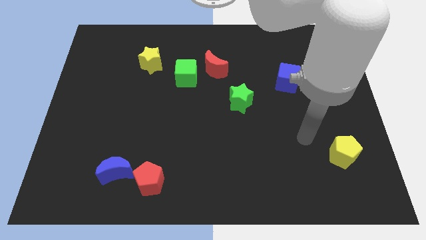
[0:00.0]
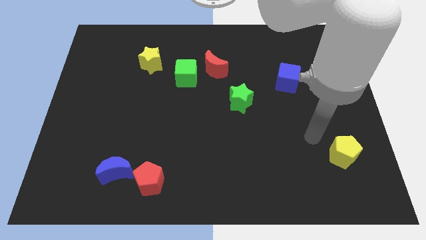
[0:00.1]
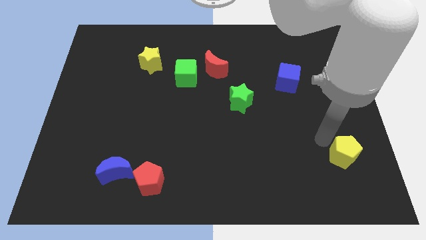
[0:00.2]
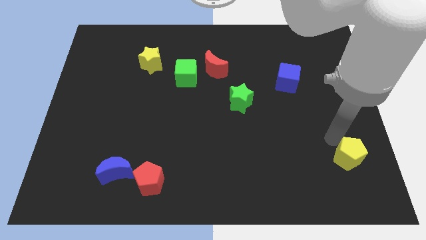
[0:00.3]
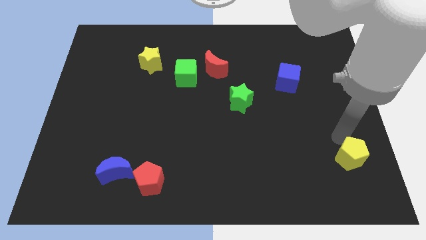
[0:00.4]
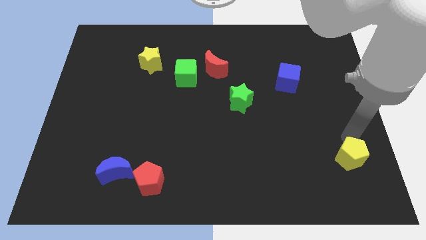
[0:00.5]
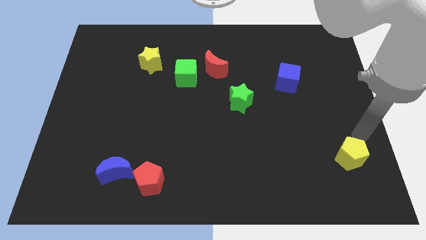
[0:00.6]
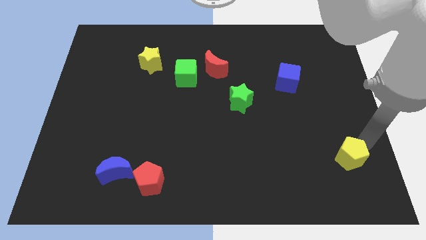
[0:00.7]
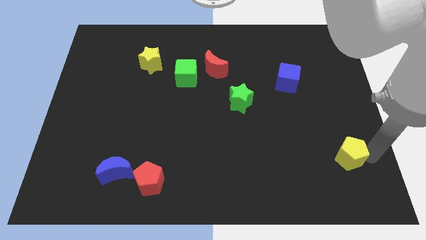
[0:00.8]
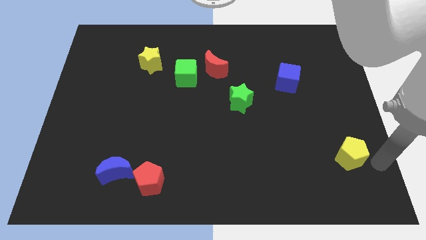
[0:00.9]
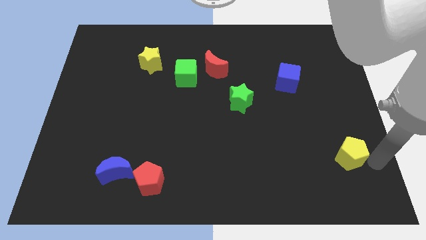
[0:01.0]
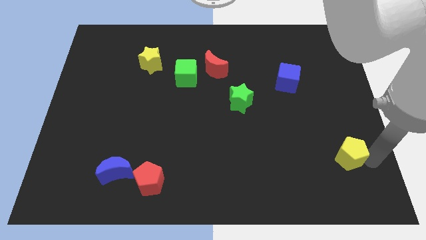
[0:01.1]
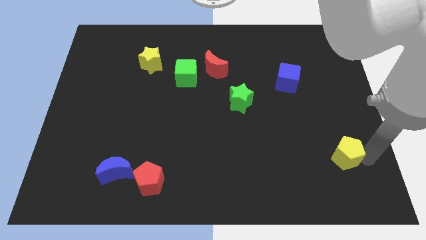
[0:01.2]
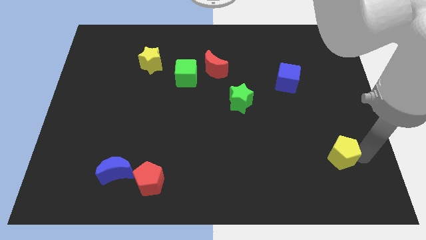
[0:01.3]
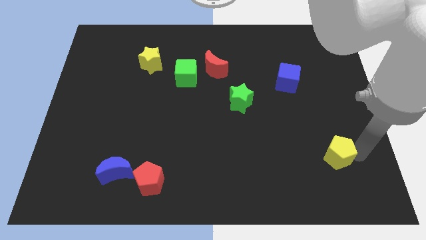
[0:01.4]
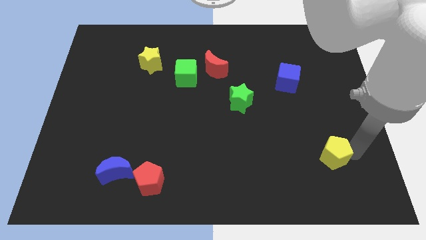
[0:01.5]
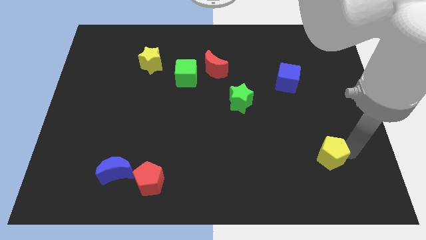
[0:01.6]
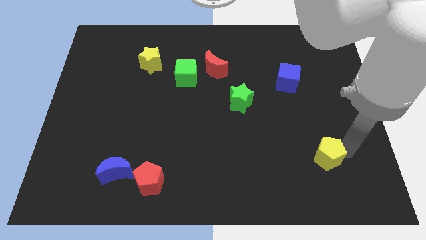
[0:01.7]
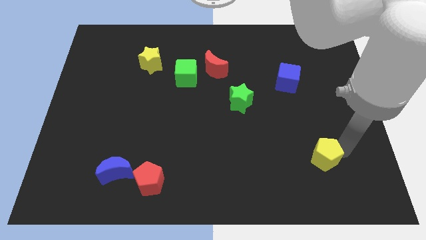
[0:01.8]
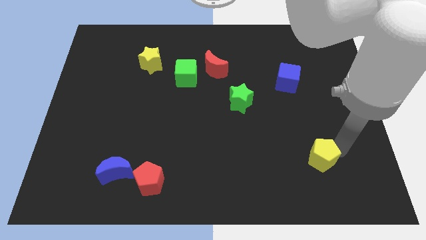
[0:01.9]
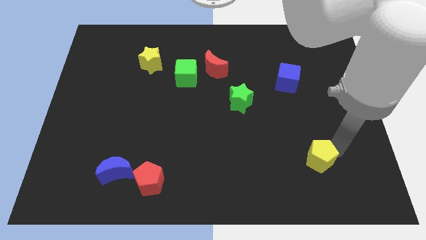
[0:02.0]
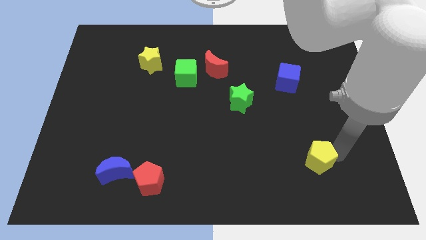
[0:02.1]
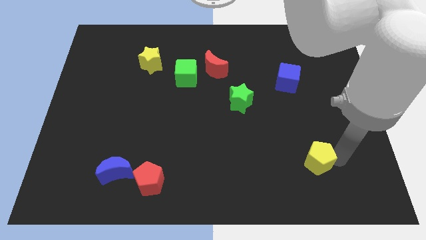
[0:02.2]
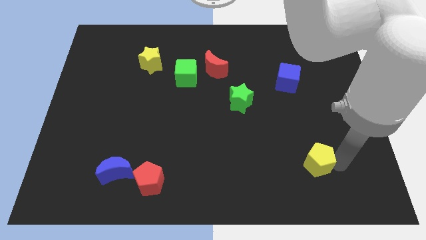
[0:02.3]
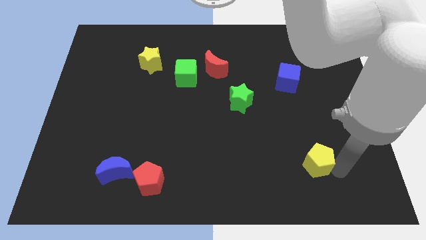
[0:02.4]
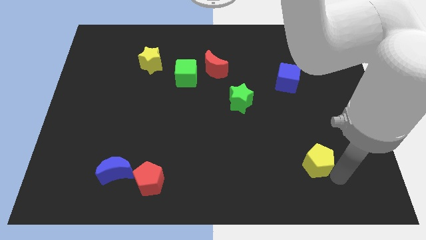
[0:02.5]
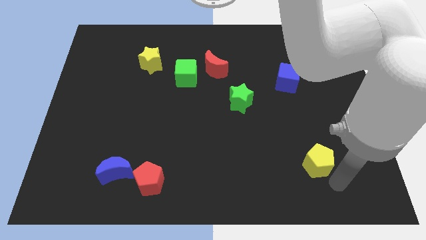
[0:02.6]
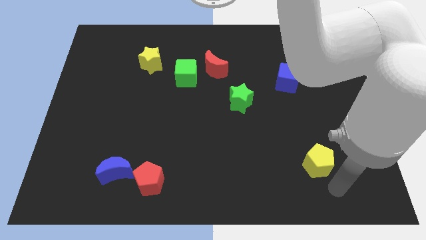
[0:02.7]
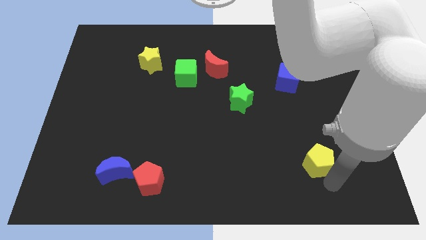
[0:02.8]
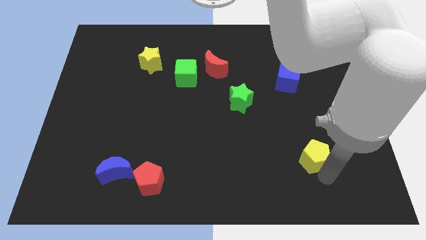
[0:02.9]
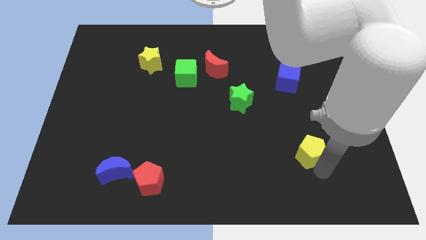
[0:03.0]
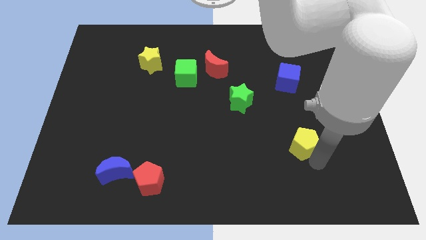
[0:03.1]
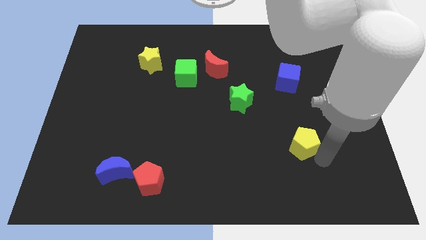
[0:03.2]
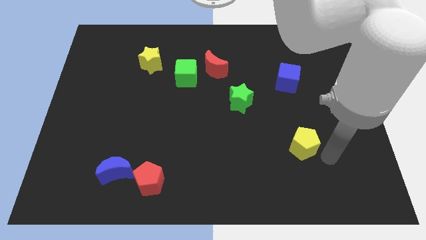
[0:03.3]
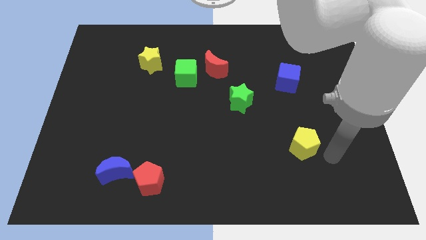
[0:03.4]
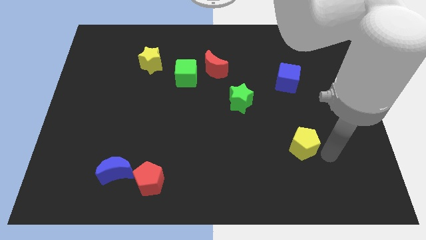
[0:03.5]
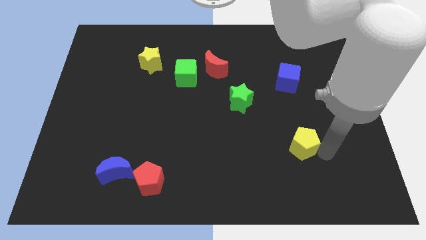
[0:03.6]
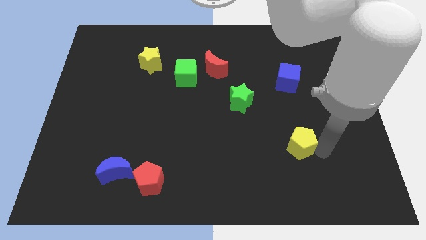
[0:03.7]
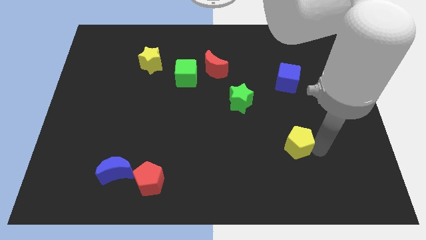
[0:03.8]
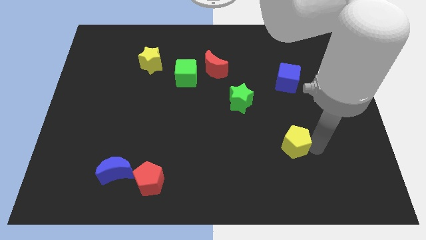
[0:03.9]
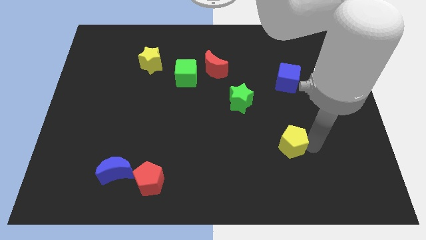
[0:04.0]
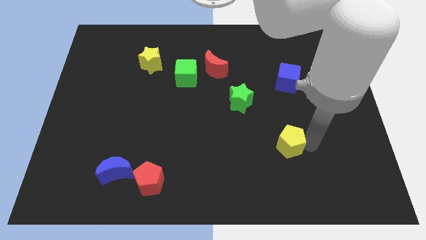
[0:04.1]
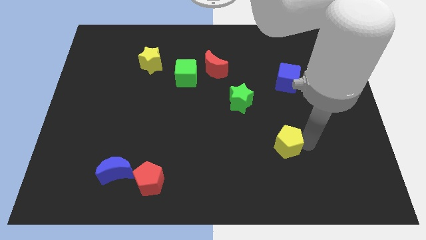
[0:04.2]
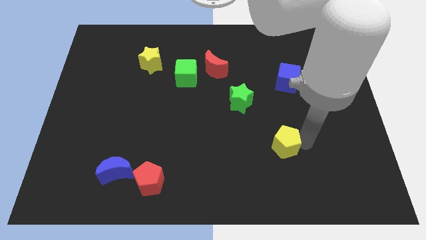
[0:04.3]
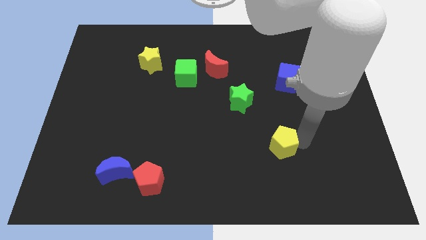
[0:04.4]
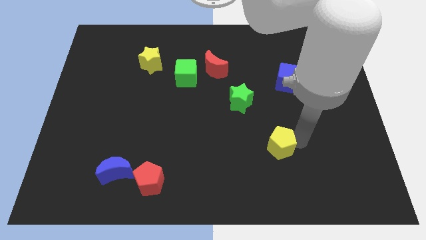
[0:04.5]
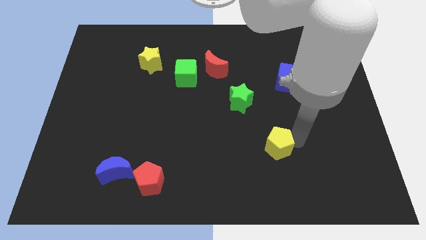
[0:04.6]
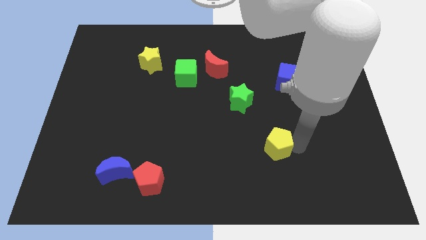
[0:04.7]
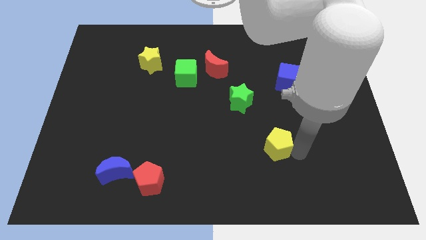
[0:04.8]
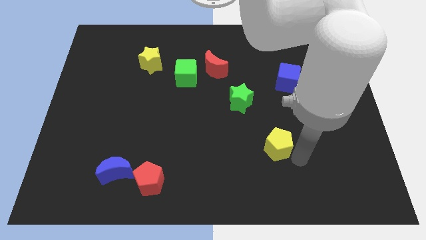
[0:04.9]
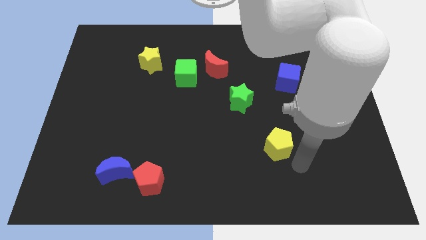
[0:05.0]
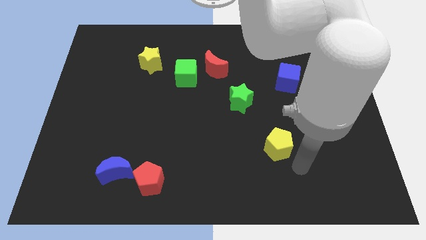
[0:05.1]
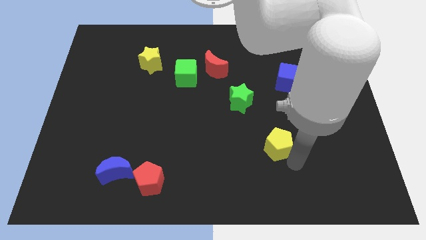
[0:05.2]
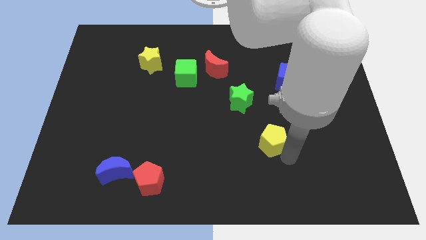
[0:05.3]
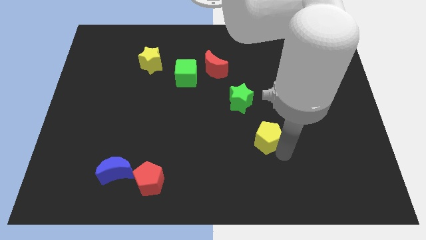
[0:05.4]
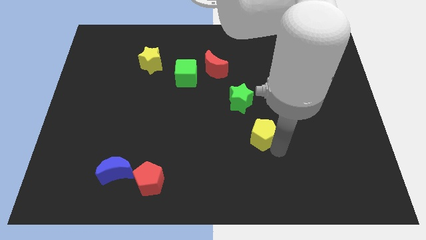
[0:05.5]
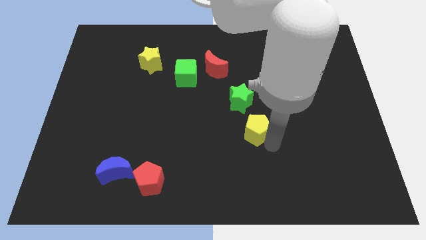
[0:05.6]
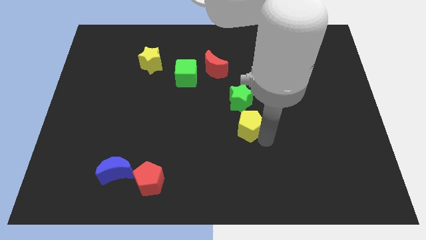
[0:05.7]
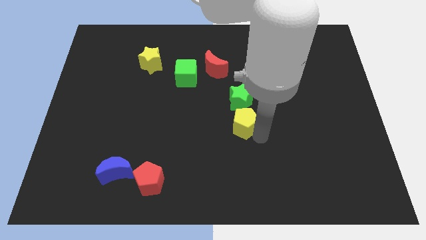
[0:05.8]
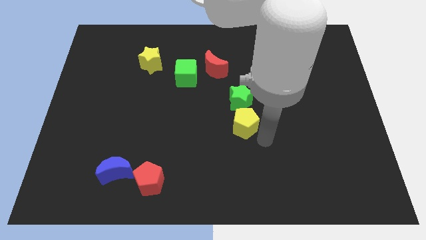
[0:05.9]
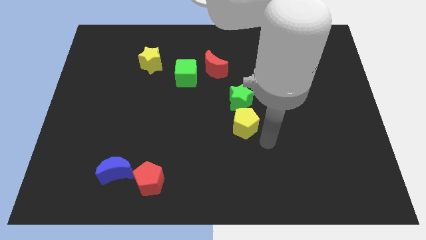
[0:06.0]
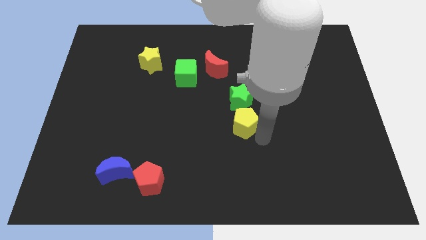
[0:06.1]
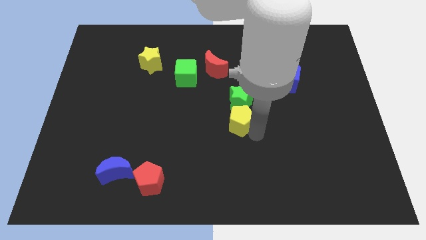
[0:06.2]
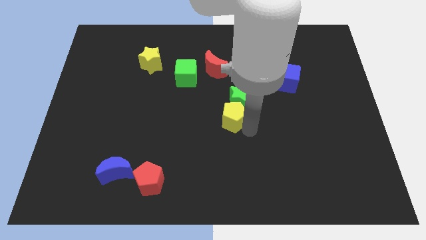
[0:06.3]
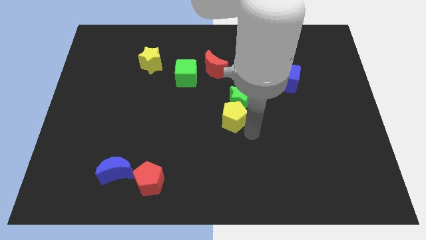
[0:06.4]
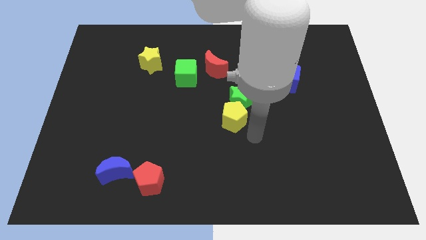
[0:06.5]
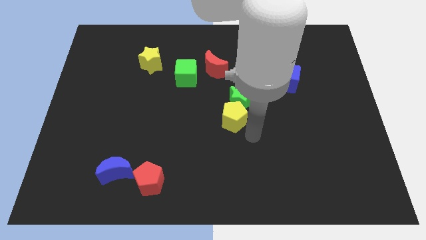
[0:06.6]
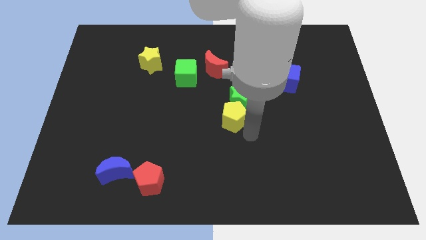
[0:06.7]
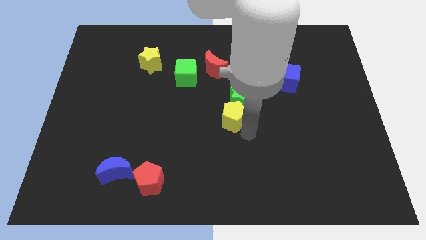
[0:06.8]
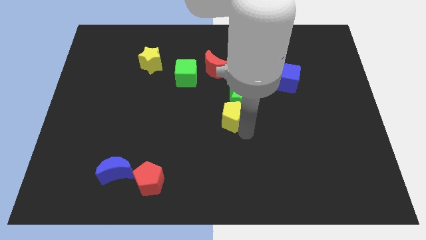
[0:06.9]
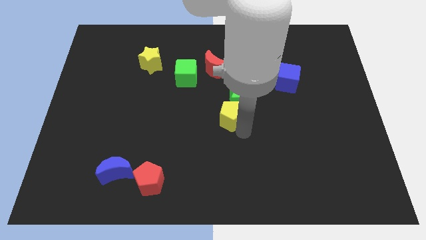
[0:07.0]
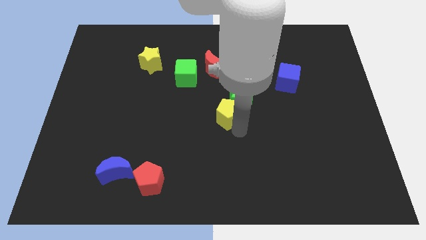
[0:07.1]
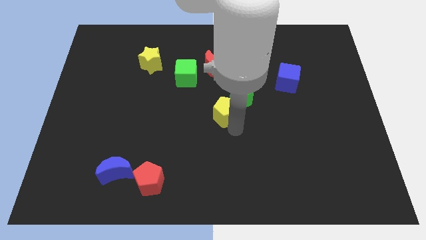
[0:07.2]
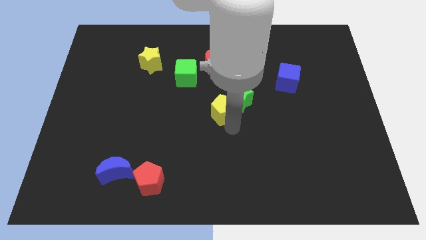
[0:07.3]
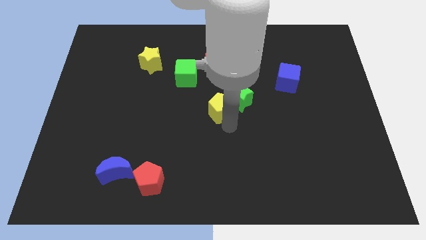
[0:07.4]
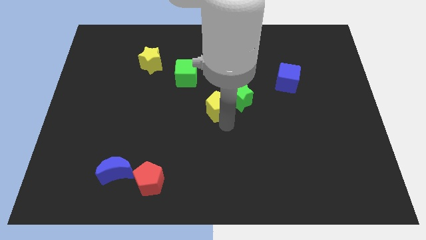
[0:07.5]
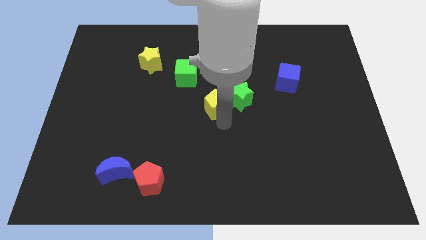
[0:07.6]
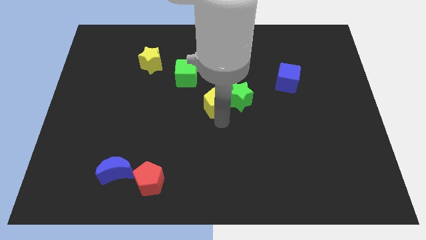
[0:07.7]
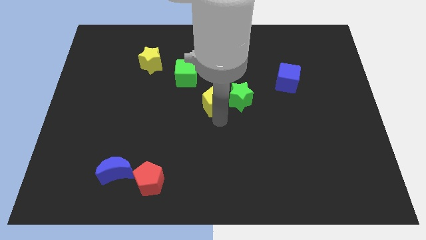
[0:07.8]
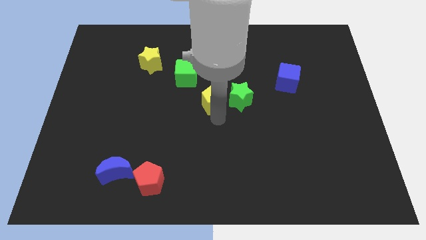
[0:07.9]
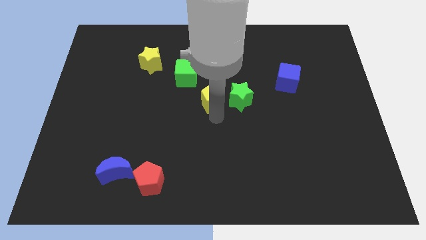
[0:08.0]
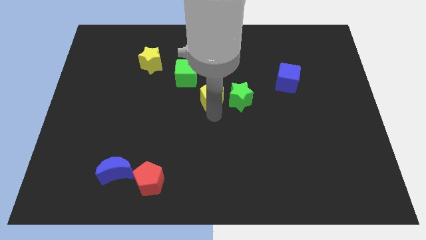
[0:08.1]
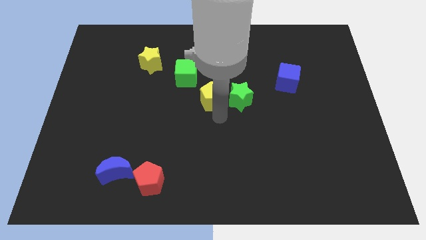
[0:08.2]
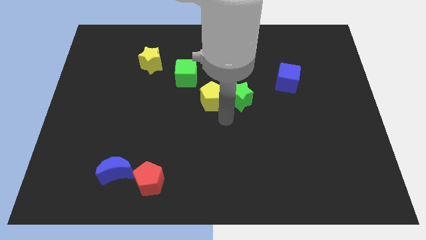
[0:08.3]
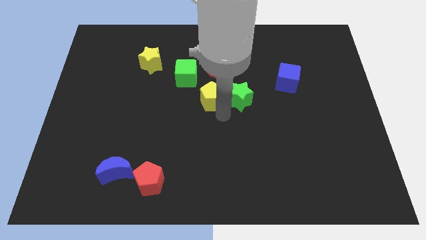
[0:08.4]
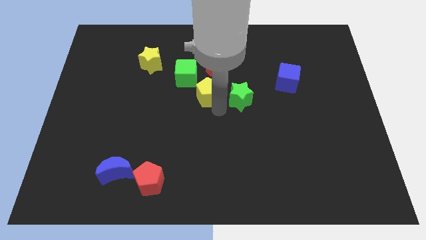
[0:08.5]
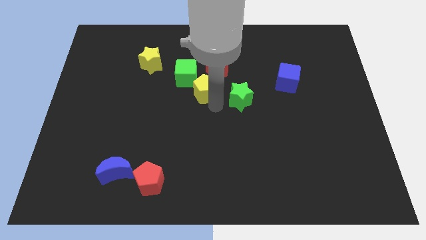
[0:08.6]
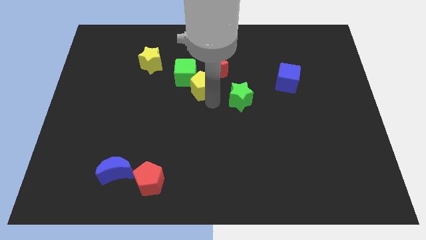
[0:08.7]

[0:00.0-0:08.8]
move the yellow pentagon to the green cube
